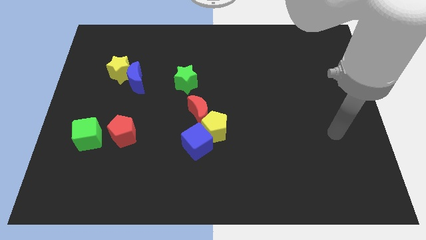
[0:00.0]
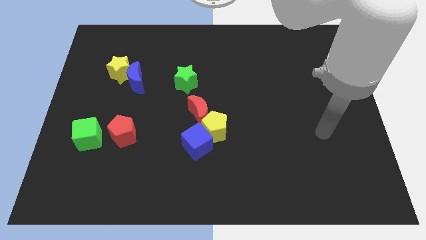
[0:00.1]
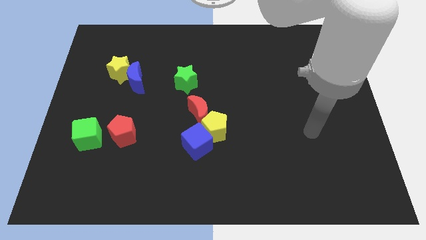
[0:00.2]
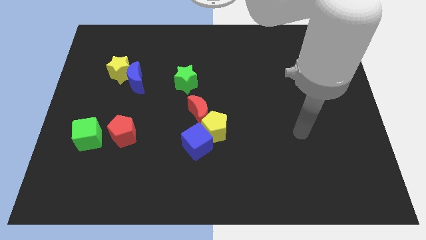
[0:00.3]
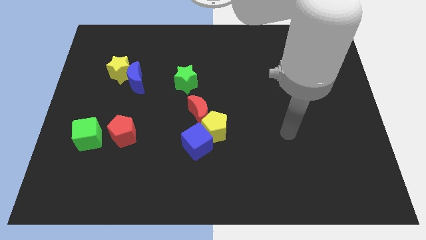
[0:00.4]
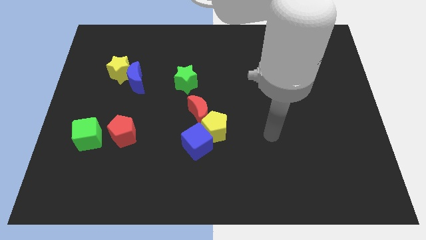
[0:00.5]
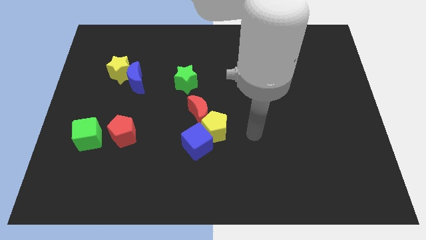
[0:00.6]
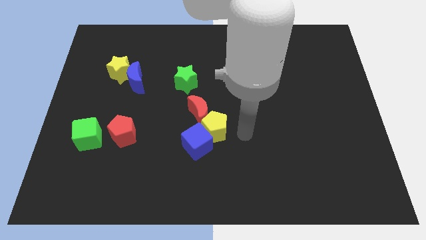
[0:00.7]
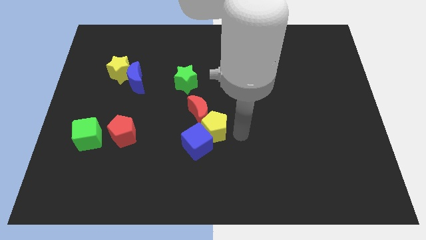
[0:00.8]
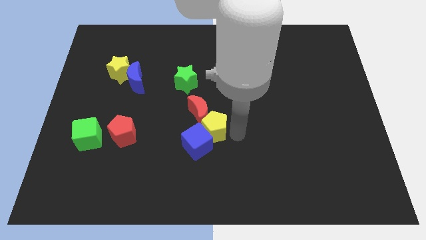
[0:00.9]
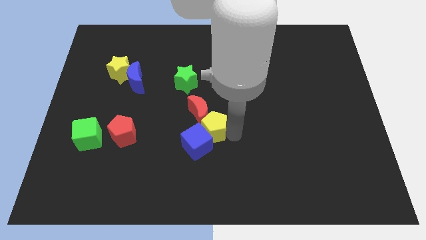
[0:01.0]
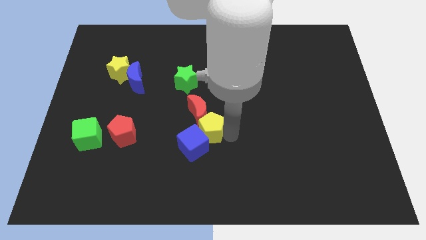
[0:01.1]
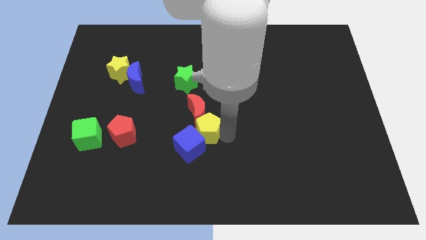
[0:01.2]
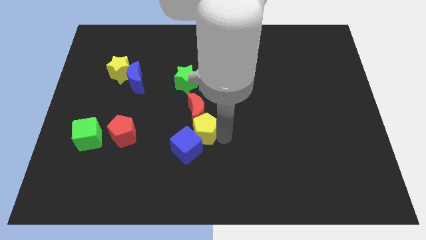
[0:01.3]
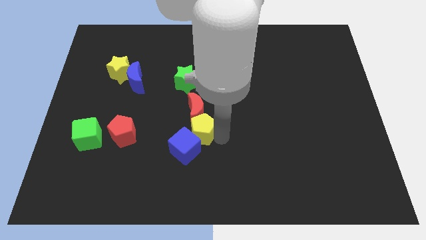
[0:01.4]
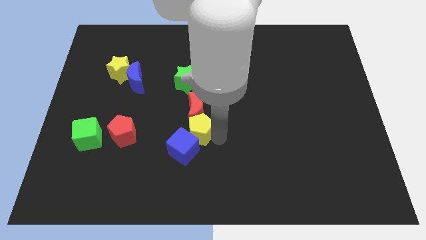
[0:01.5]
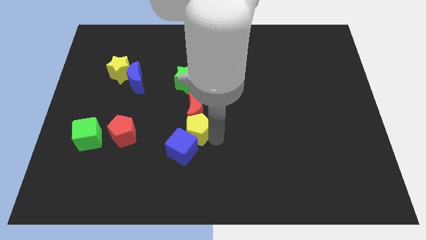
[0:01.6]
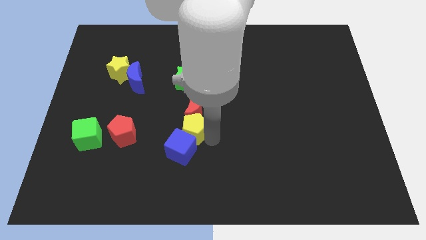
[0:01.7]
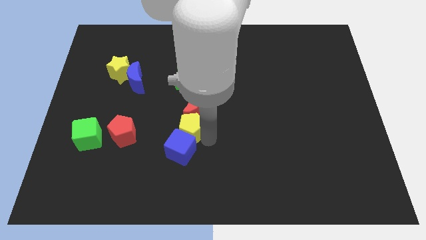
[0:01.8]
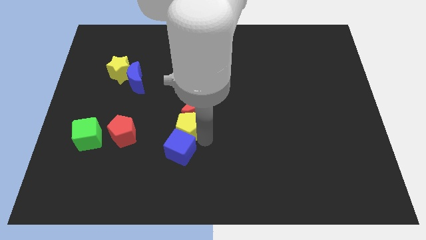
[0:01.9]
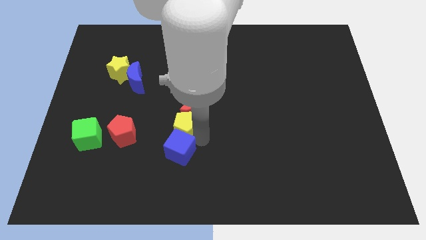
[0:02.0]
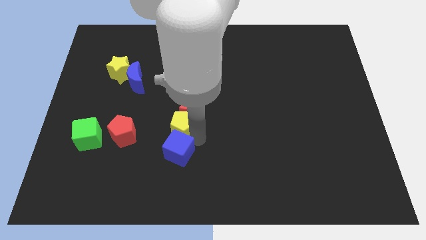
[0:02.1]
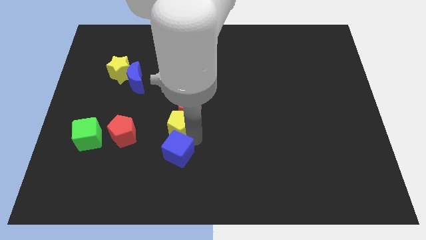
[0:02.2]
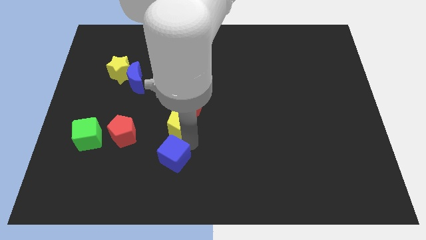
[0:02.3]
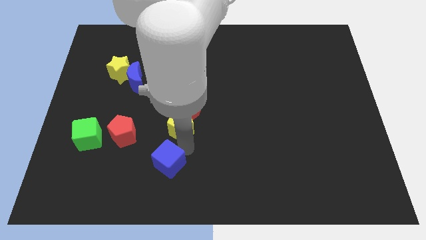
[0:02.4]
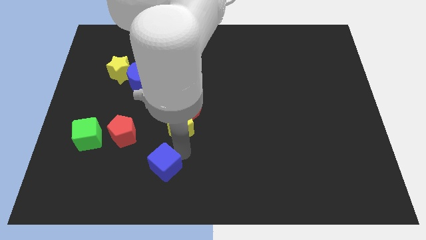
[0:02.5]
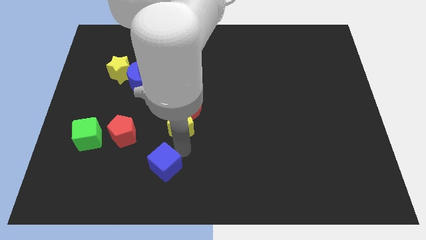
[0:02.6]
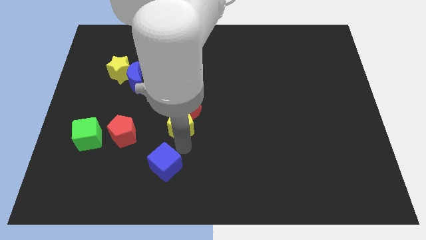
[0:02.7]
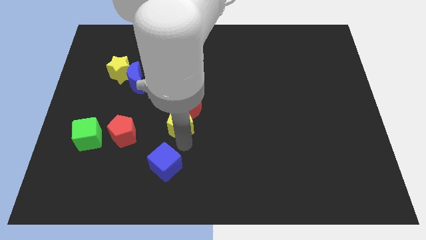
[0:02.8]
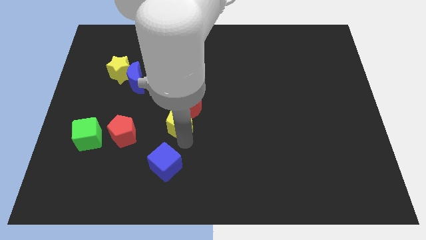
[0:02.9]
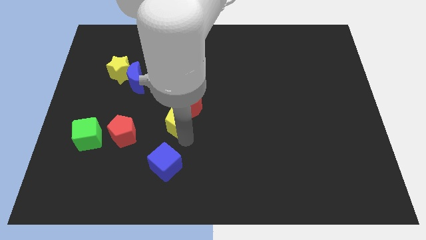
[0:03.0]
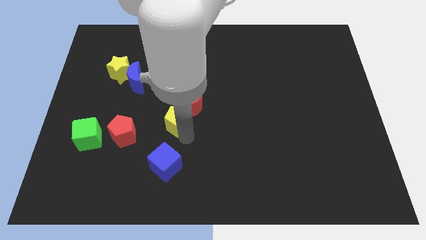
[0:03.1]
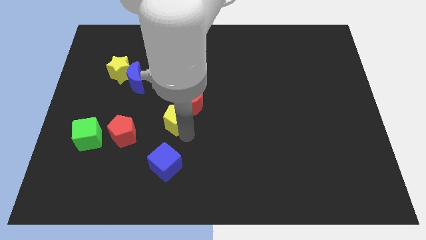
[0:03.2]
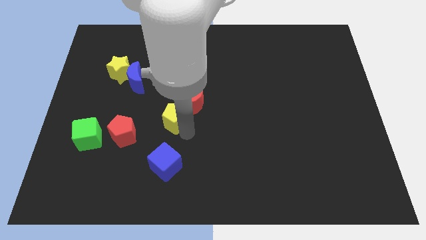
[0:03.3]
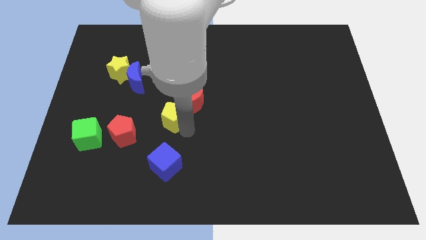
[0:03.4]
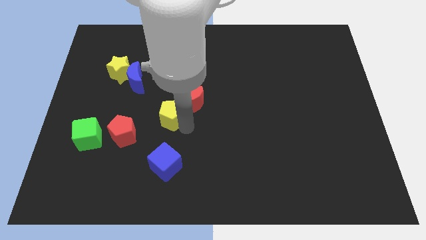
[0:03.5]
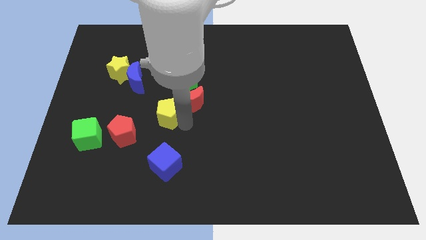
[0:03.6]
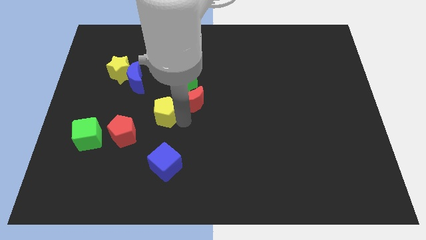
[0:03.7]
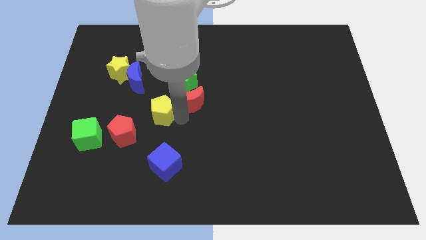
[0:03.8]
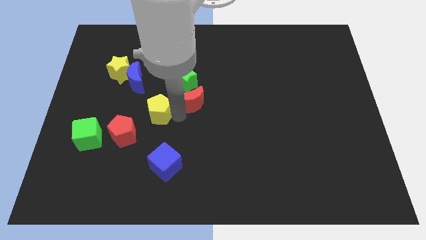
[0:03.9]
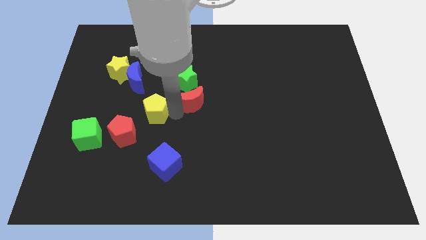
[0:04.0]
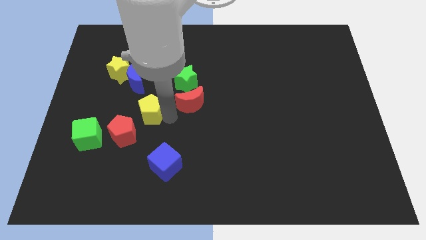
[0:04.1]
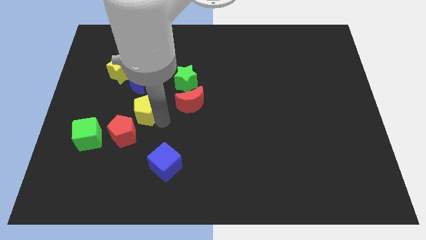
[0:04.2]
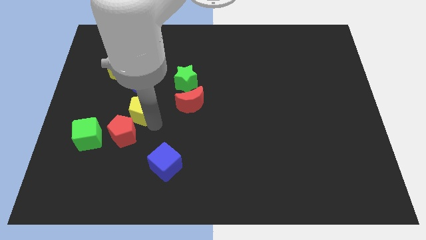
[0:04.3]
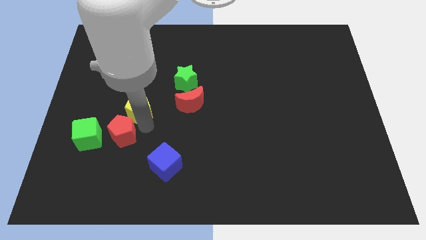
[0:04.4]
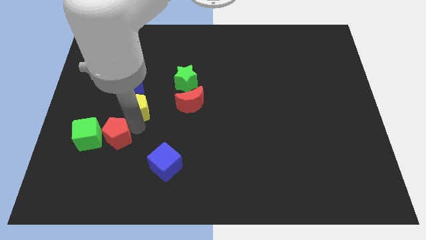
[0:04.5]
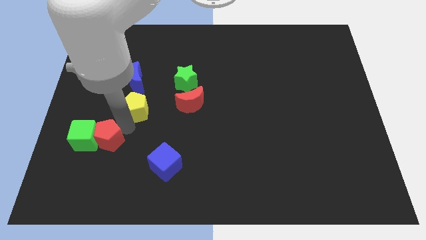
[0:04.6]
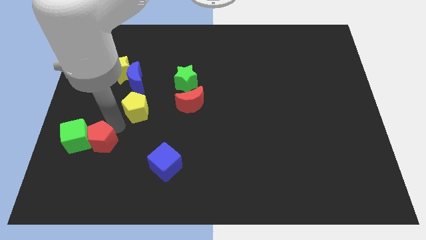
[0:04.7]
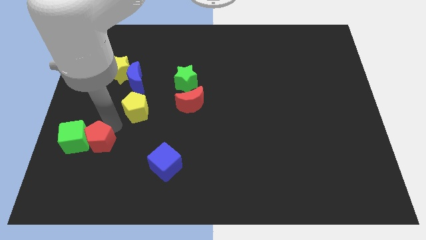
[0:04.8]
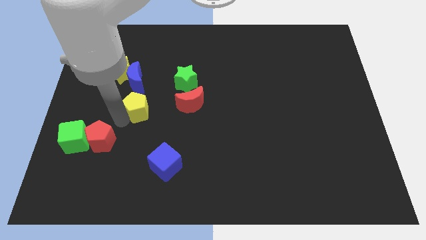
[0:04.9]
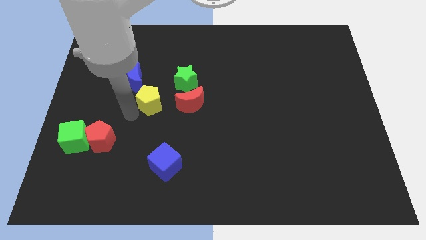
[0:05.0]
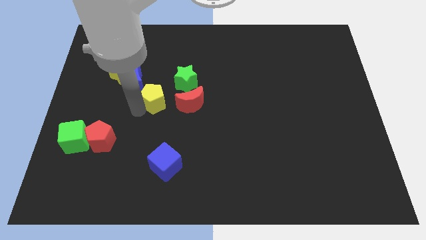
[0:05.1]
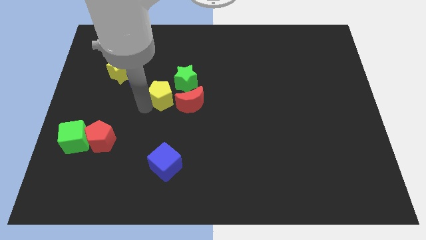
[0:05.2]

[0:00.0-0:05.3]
slide the yellow pentagon to the top left side of the red moon

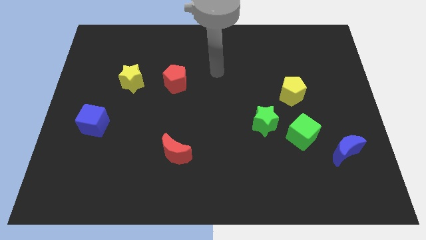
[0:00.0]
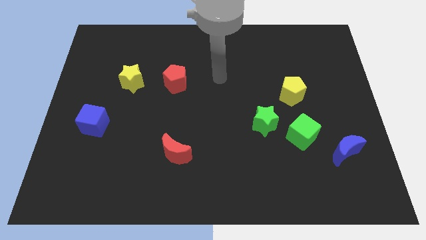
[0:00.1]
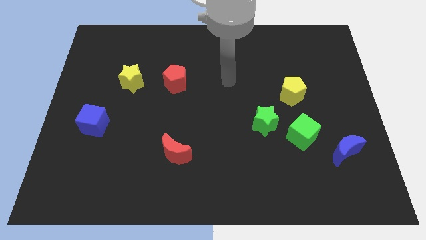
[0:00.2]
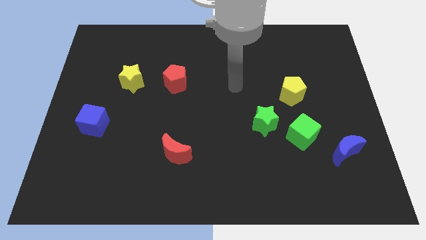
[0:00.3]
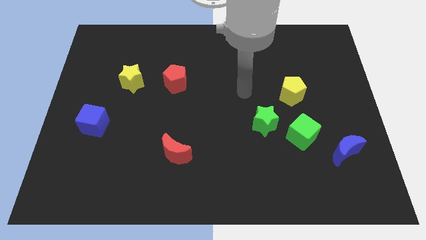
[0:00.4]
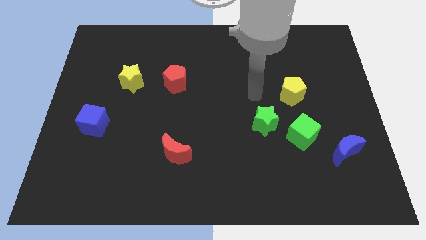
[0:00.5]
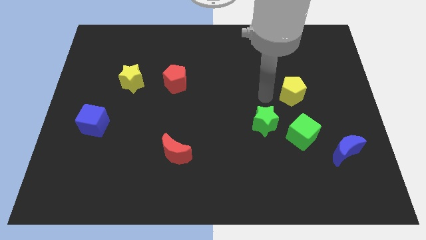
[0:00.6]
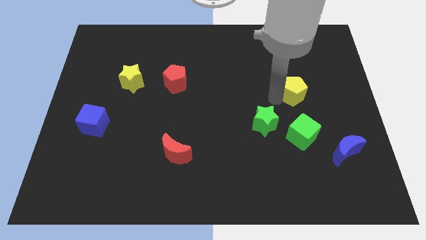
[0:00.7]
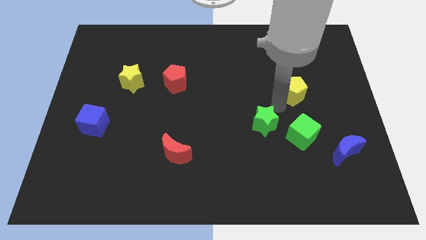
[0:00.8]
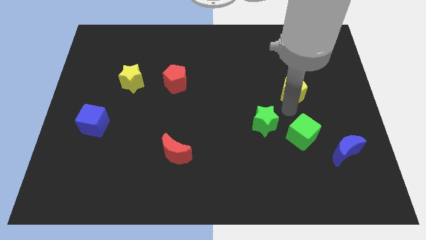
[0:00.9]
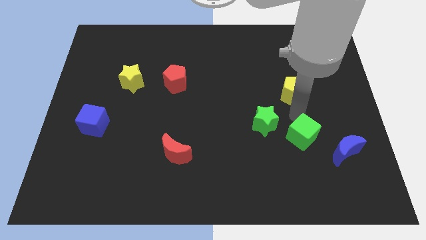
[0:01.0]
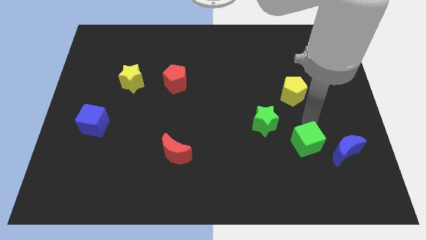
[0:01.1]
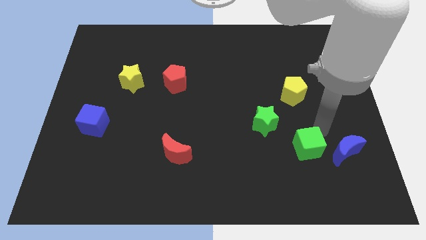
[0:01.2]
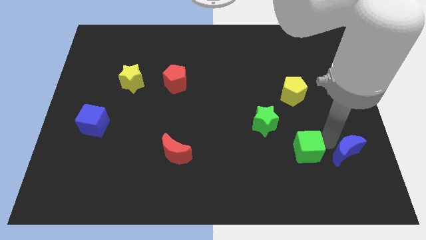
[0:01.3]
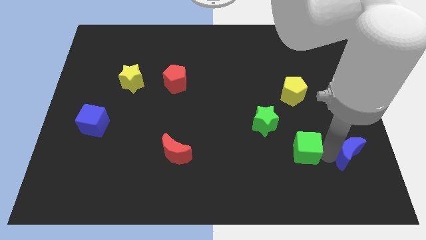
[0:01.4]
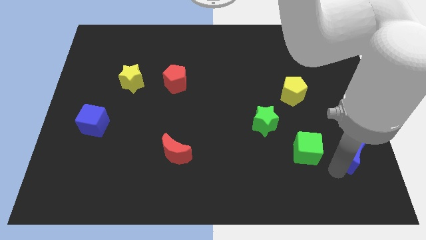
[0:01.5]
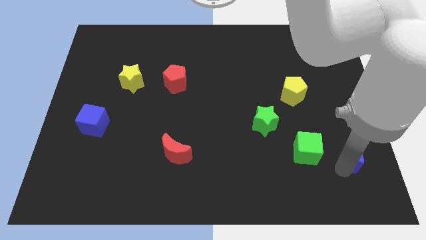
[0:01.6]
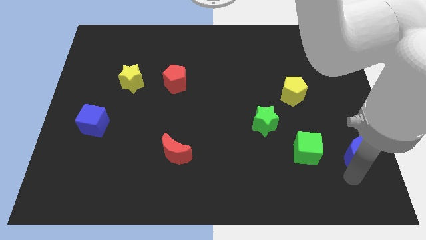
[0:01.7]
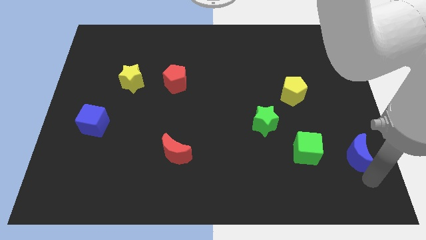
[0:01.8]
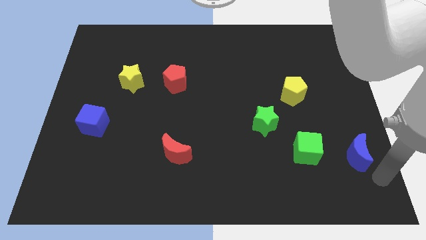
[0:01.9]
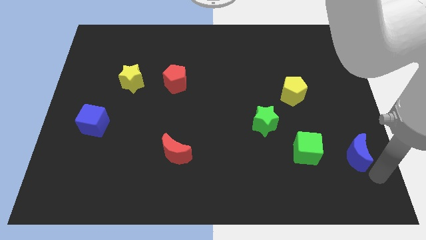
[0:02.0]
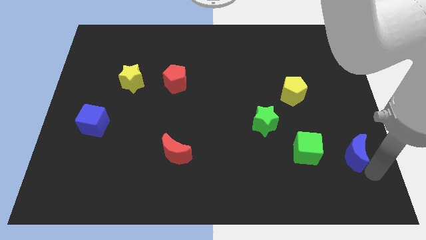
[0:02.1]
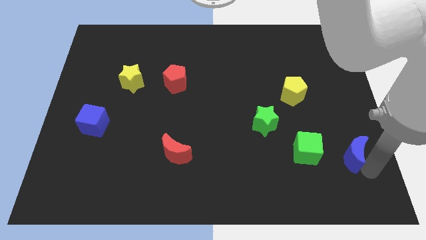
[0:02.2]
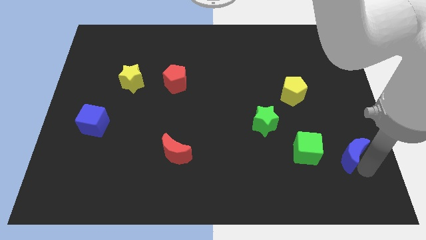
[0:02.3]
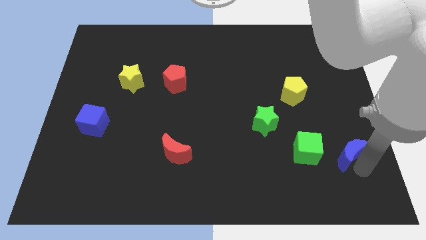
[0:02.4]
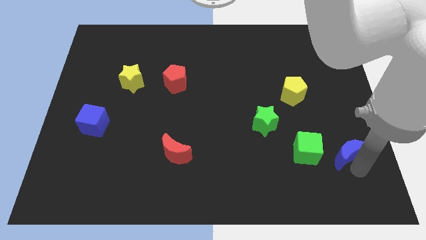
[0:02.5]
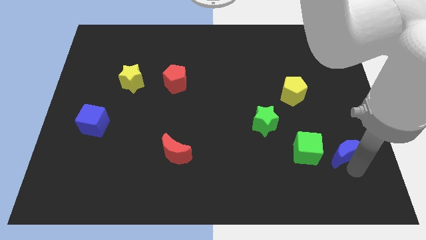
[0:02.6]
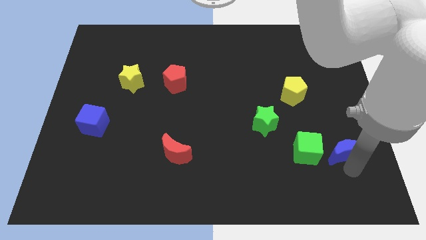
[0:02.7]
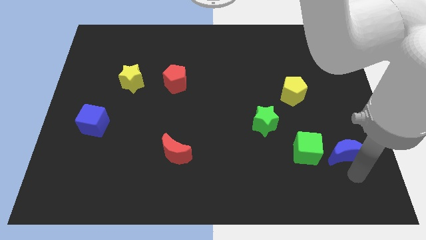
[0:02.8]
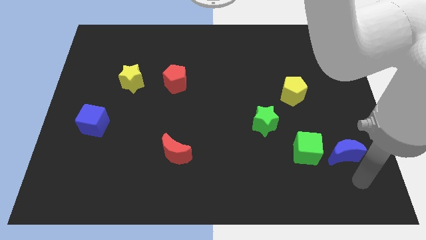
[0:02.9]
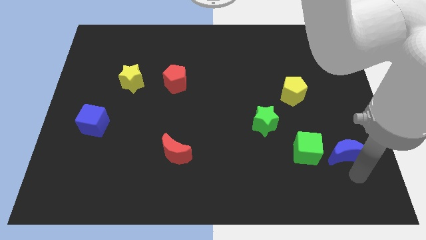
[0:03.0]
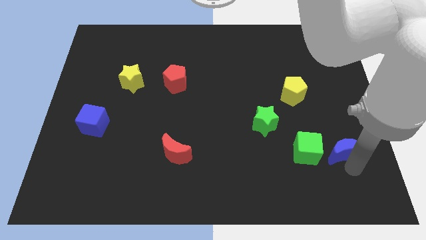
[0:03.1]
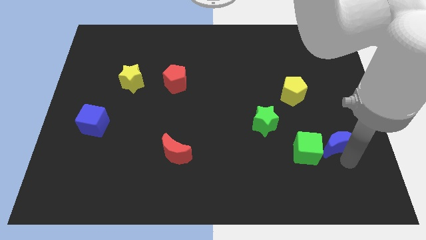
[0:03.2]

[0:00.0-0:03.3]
move the blue moon to the top right side of the green cube
